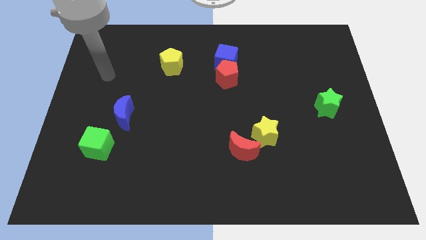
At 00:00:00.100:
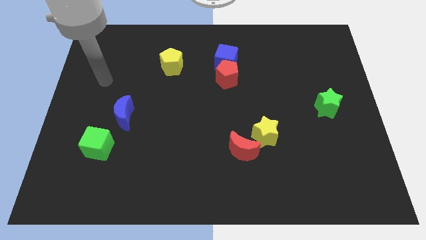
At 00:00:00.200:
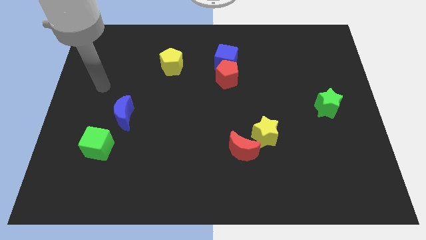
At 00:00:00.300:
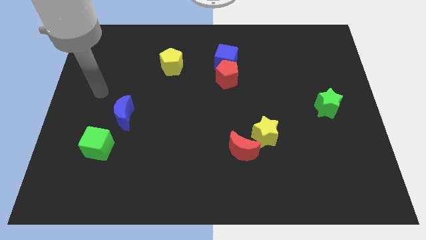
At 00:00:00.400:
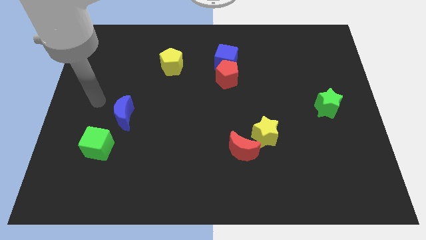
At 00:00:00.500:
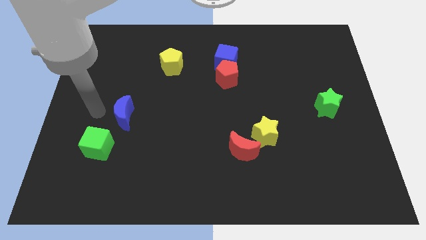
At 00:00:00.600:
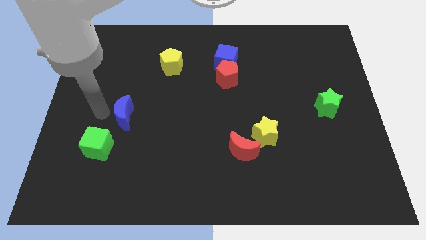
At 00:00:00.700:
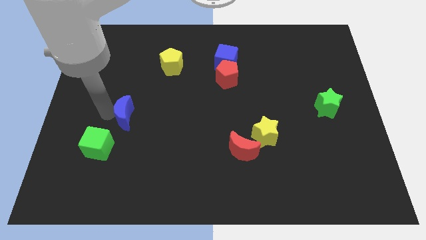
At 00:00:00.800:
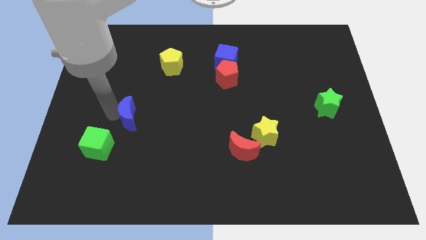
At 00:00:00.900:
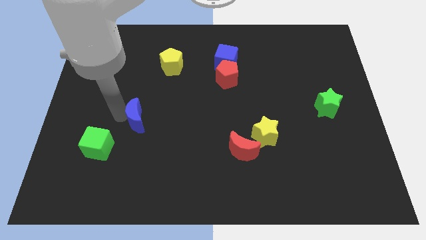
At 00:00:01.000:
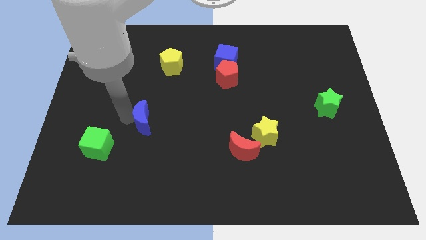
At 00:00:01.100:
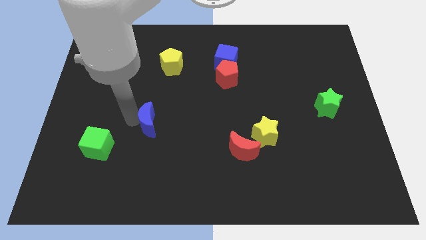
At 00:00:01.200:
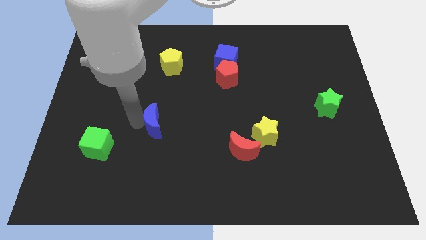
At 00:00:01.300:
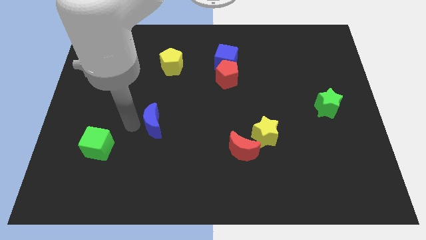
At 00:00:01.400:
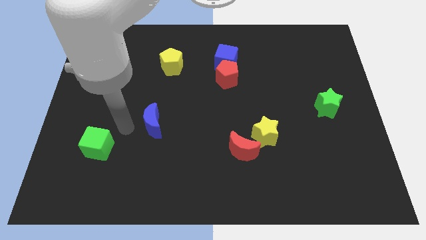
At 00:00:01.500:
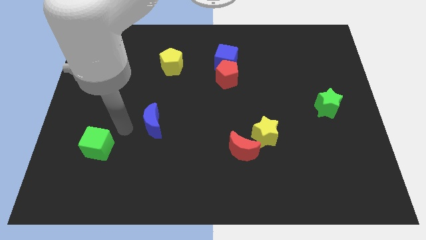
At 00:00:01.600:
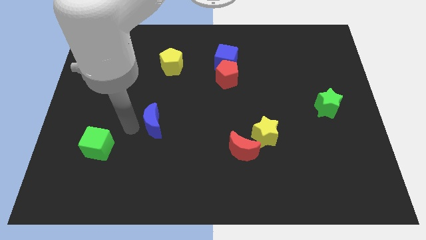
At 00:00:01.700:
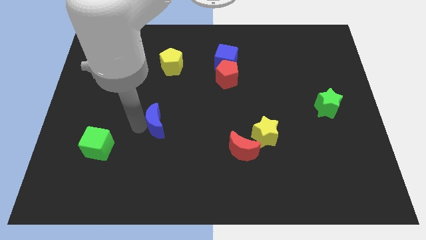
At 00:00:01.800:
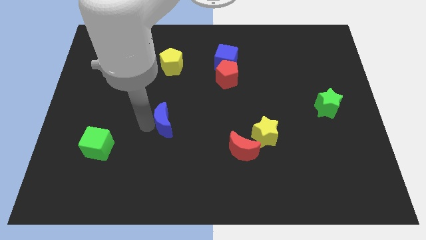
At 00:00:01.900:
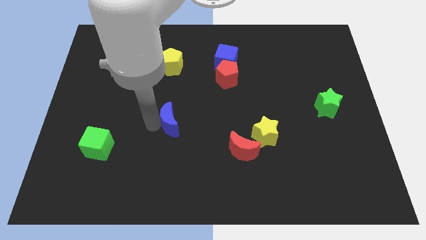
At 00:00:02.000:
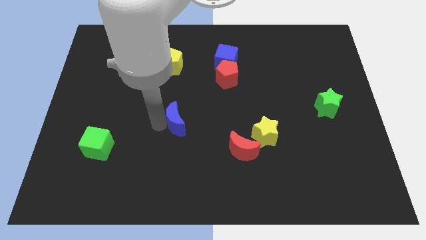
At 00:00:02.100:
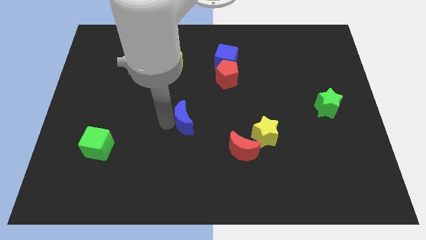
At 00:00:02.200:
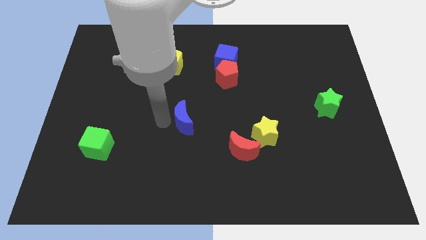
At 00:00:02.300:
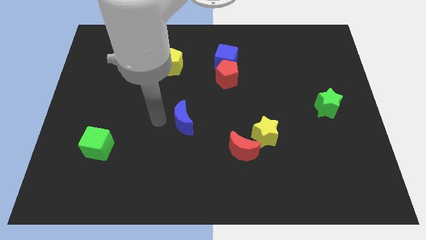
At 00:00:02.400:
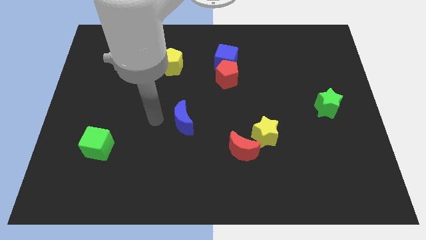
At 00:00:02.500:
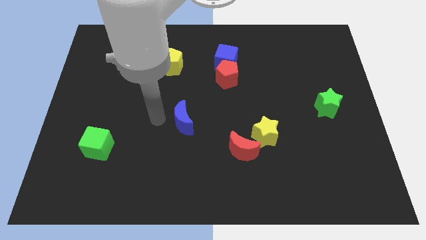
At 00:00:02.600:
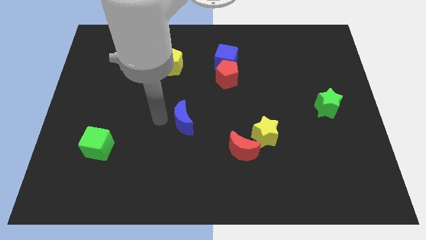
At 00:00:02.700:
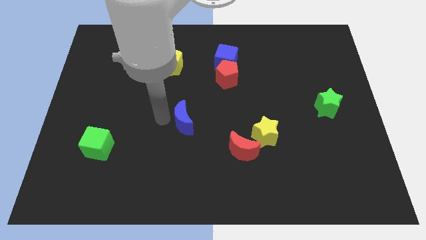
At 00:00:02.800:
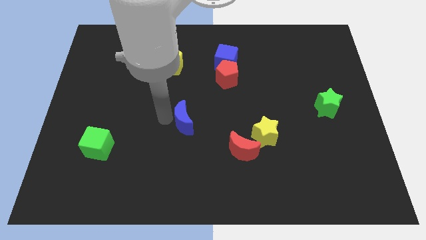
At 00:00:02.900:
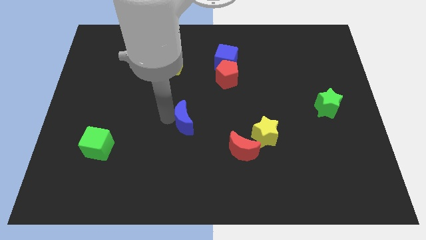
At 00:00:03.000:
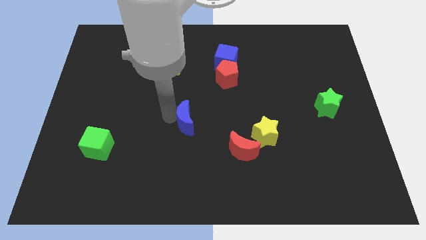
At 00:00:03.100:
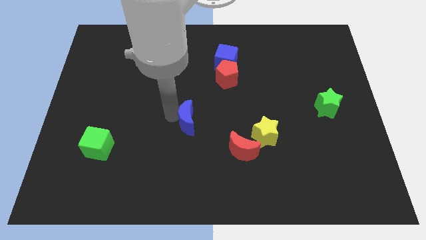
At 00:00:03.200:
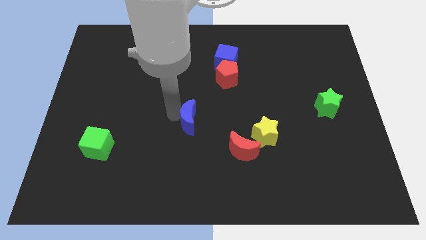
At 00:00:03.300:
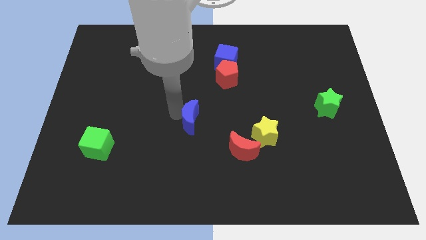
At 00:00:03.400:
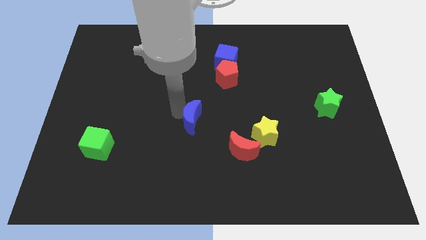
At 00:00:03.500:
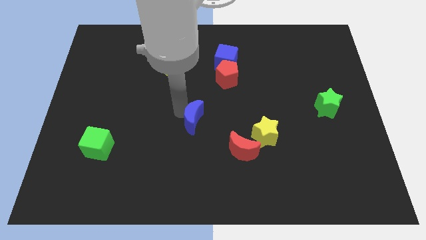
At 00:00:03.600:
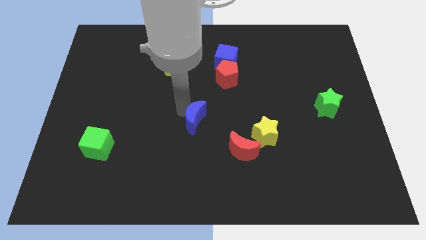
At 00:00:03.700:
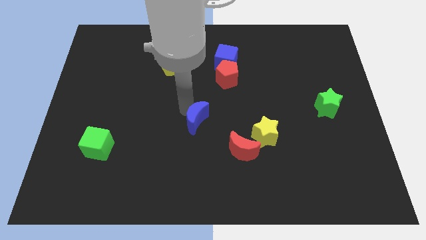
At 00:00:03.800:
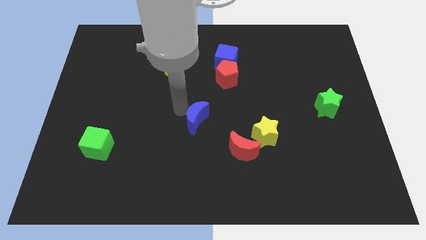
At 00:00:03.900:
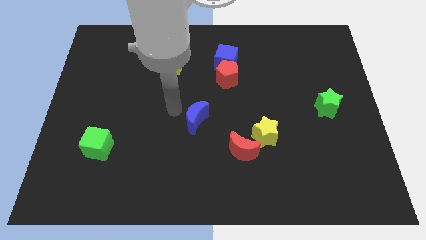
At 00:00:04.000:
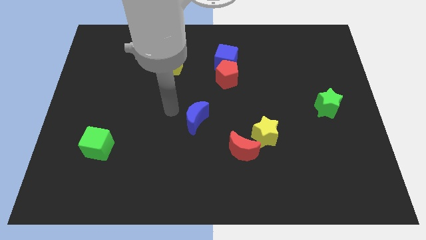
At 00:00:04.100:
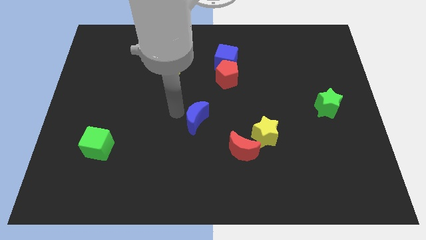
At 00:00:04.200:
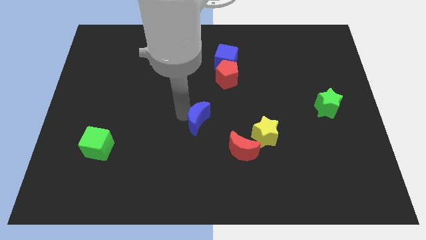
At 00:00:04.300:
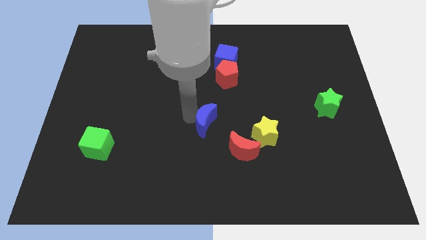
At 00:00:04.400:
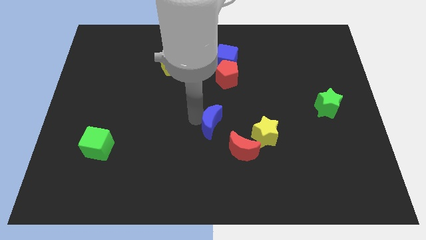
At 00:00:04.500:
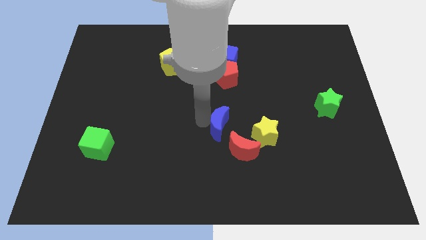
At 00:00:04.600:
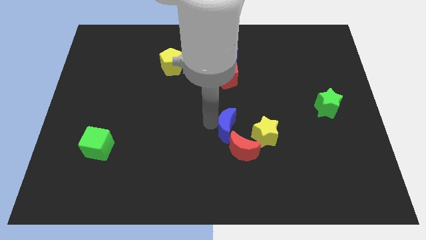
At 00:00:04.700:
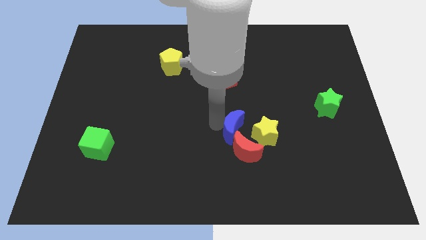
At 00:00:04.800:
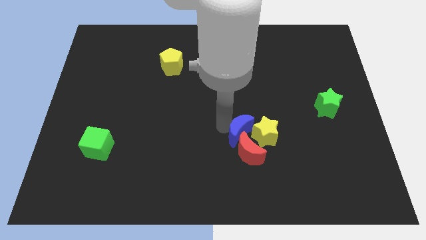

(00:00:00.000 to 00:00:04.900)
put the blue moon to the yellow star

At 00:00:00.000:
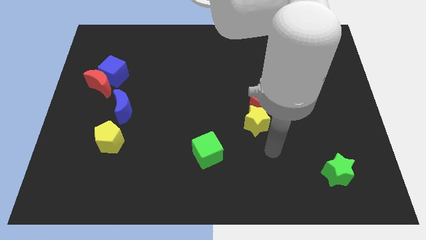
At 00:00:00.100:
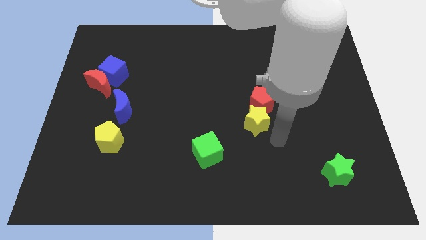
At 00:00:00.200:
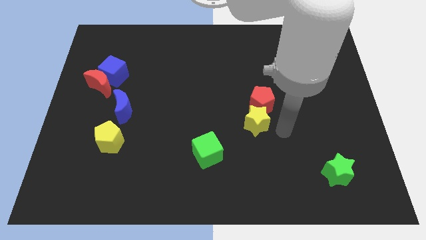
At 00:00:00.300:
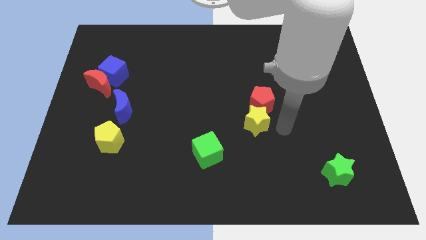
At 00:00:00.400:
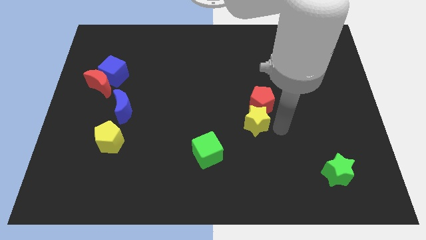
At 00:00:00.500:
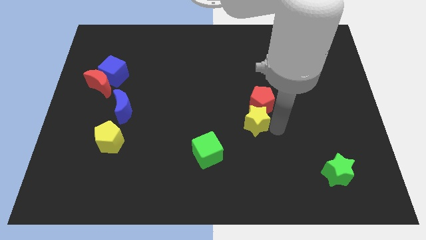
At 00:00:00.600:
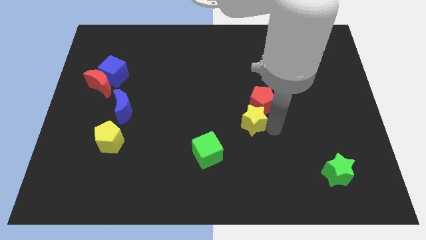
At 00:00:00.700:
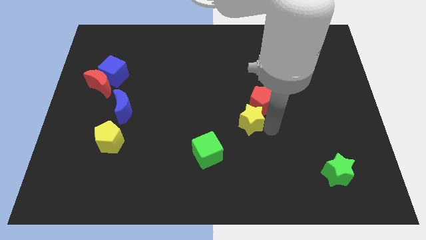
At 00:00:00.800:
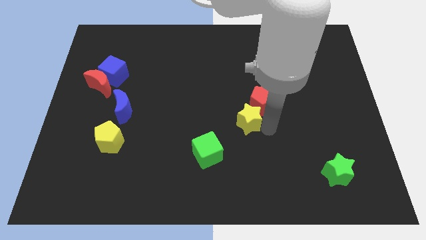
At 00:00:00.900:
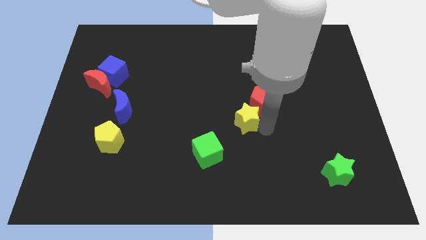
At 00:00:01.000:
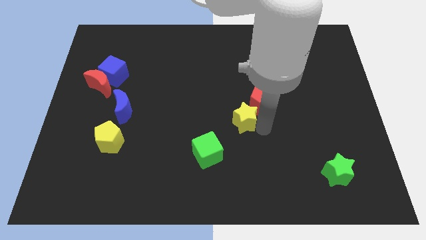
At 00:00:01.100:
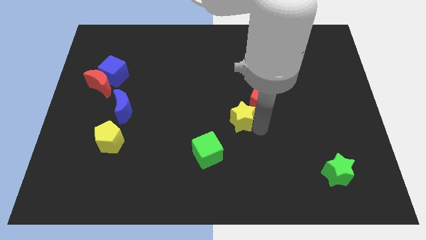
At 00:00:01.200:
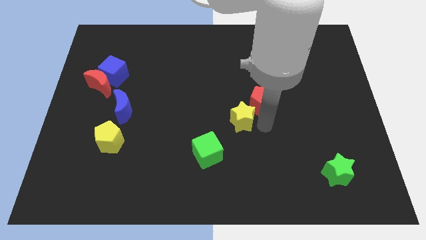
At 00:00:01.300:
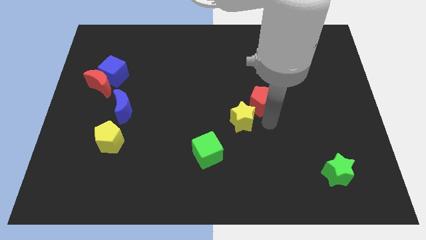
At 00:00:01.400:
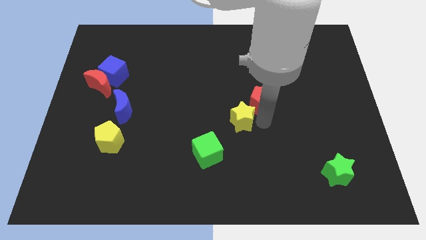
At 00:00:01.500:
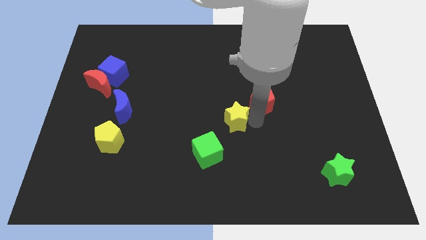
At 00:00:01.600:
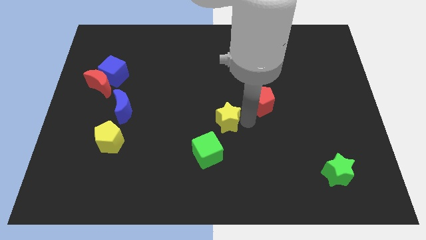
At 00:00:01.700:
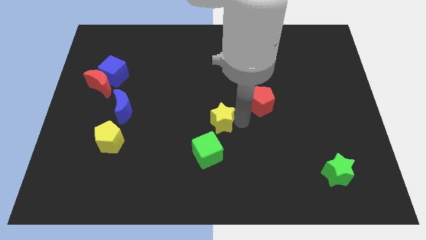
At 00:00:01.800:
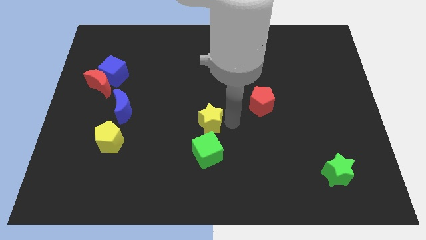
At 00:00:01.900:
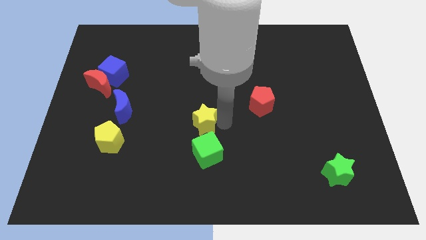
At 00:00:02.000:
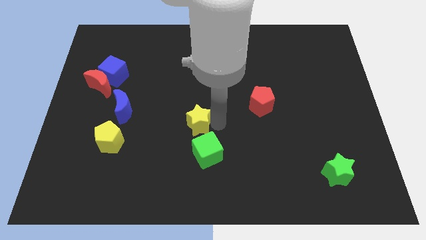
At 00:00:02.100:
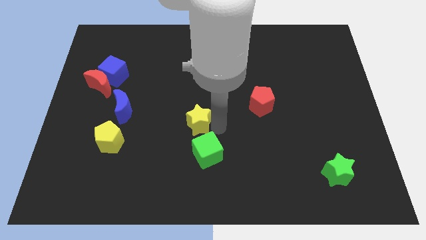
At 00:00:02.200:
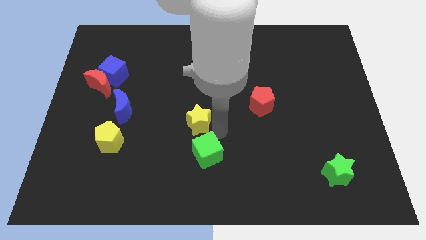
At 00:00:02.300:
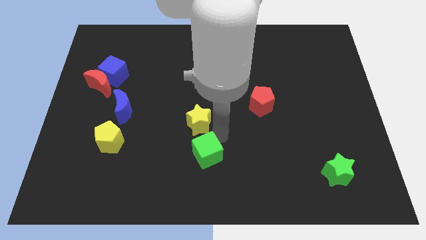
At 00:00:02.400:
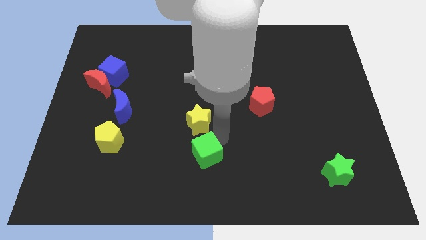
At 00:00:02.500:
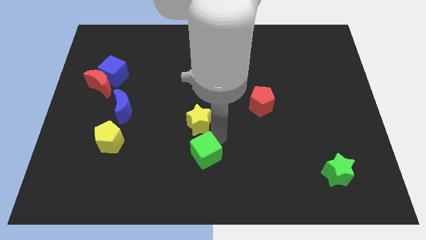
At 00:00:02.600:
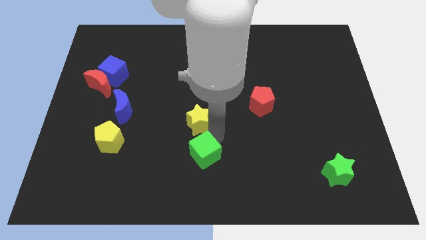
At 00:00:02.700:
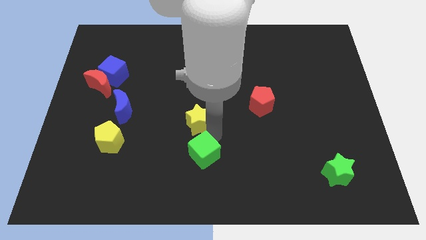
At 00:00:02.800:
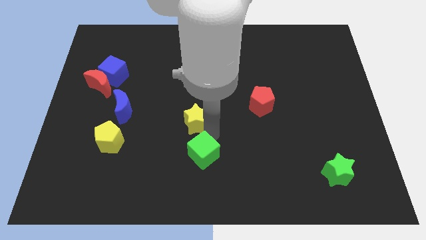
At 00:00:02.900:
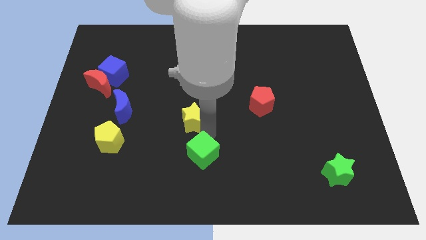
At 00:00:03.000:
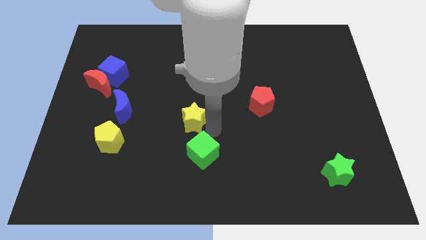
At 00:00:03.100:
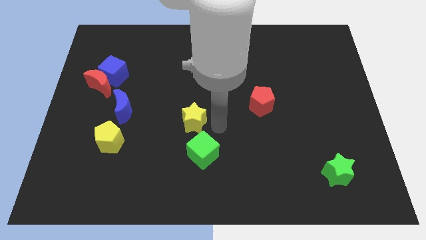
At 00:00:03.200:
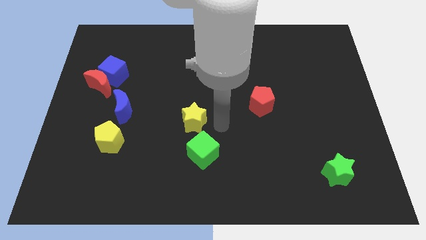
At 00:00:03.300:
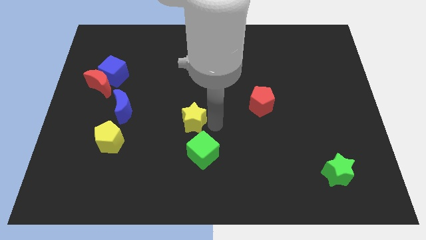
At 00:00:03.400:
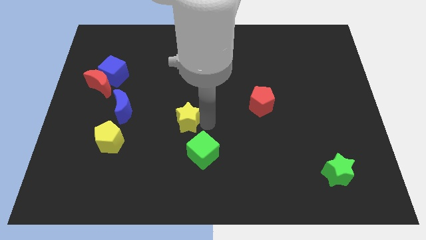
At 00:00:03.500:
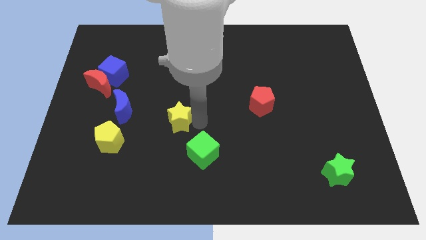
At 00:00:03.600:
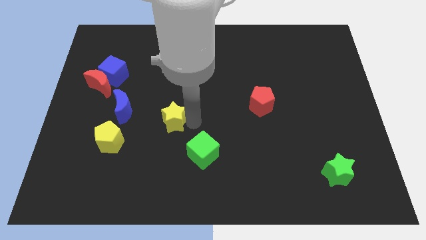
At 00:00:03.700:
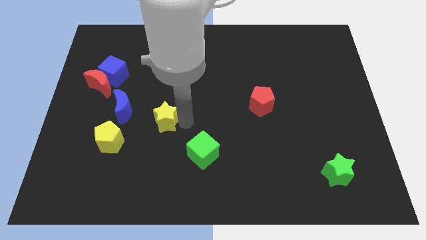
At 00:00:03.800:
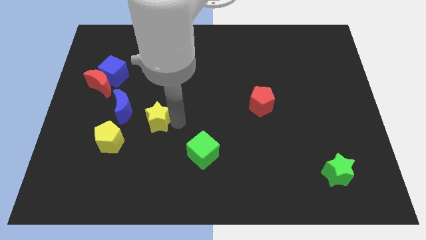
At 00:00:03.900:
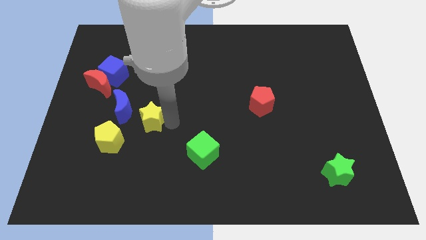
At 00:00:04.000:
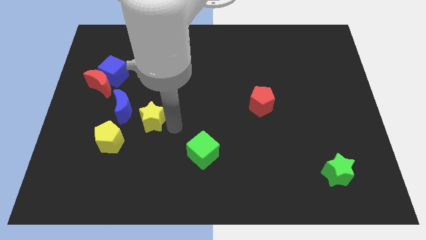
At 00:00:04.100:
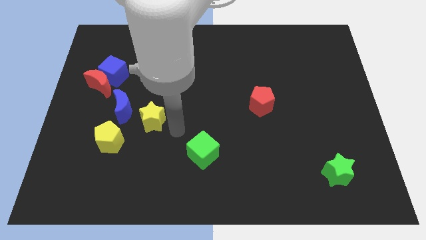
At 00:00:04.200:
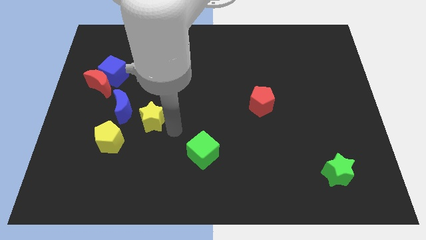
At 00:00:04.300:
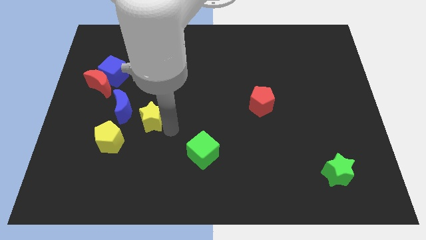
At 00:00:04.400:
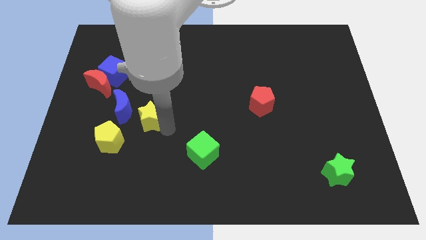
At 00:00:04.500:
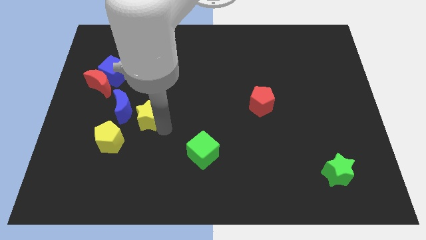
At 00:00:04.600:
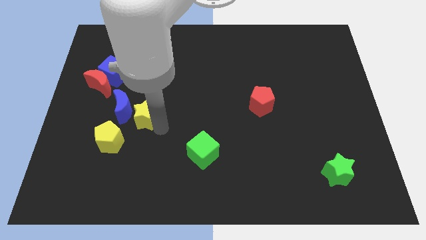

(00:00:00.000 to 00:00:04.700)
put the yellow star towards the blue moon
